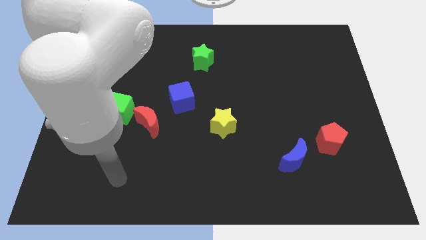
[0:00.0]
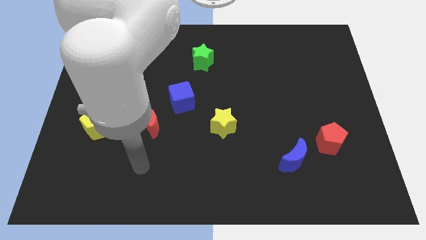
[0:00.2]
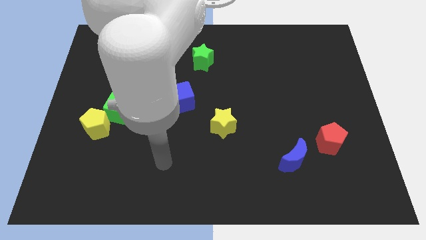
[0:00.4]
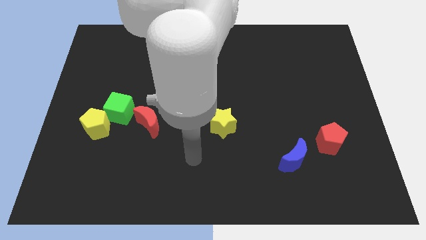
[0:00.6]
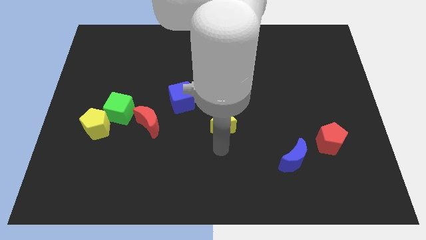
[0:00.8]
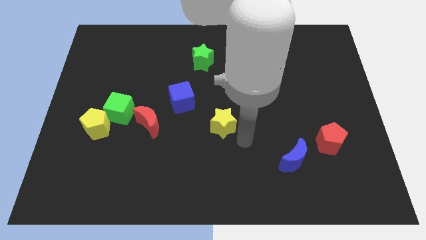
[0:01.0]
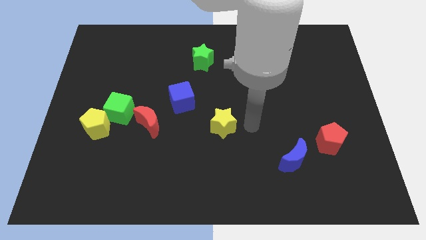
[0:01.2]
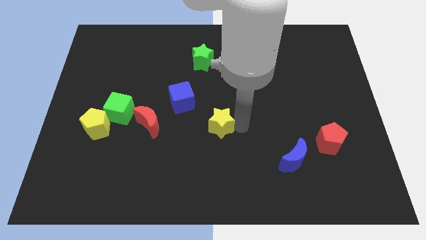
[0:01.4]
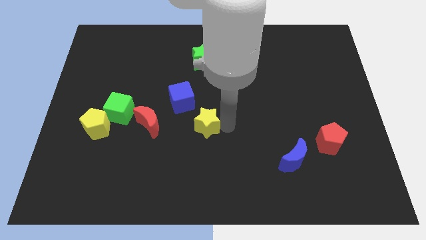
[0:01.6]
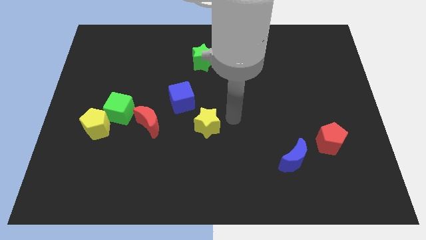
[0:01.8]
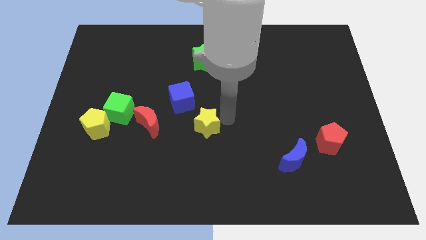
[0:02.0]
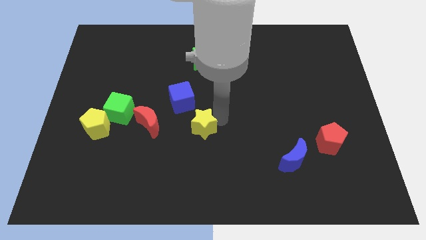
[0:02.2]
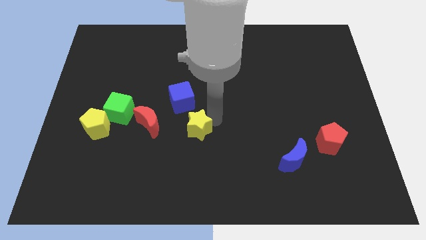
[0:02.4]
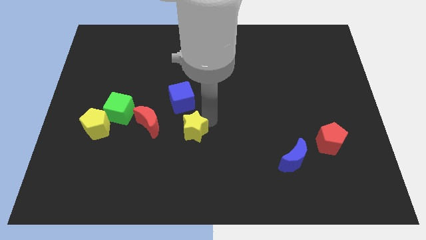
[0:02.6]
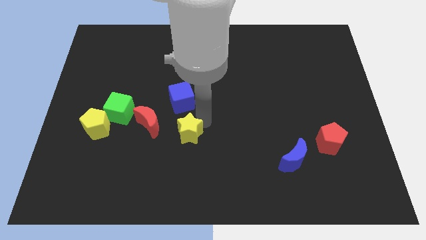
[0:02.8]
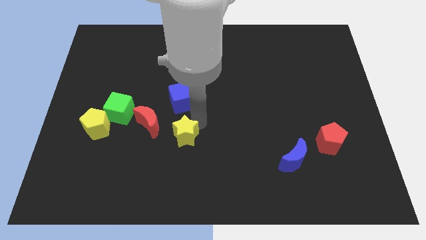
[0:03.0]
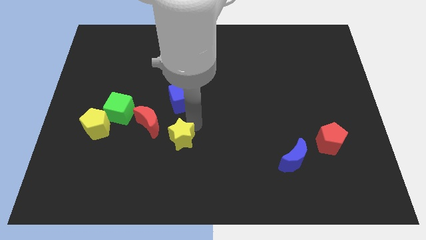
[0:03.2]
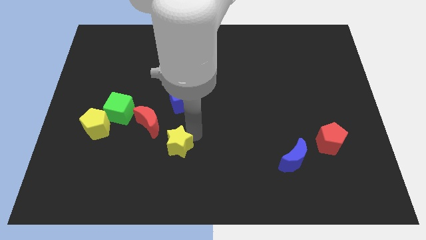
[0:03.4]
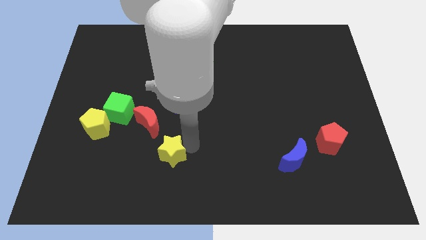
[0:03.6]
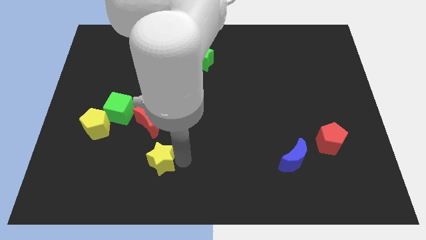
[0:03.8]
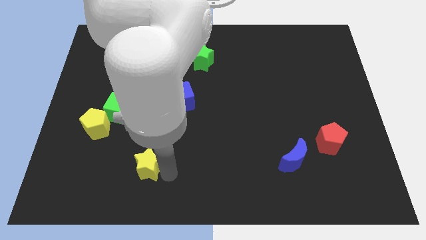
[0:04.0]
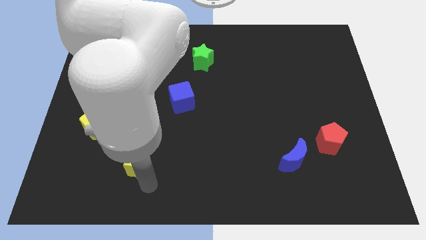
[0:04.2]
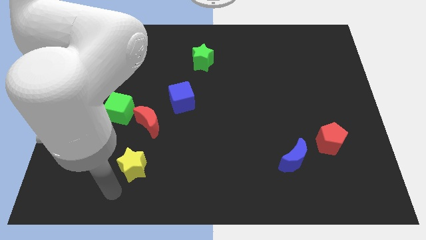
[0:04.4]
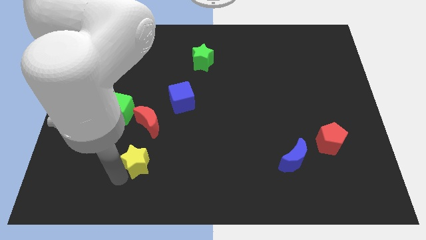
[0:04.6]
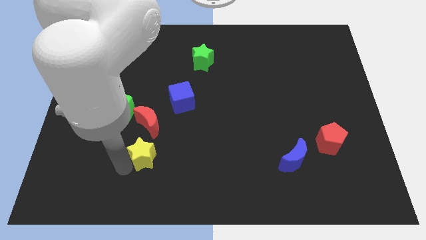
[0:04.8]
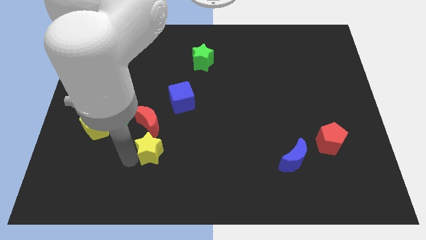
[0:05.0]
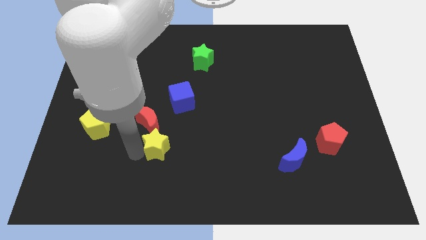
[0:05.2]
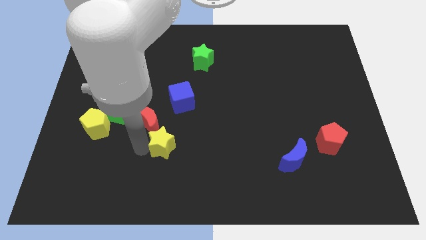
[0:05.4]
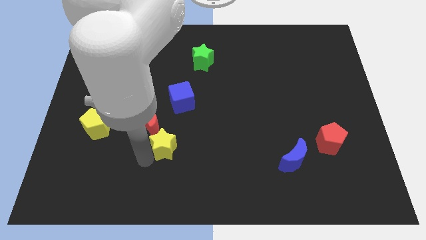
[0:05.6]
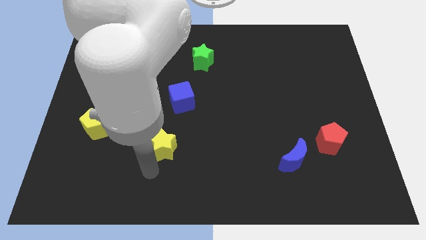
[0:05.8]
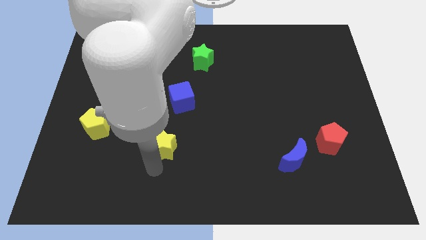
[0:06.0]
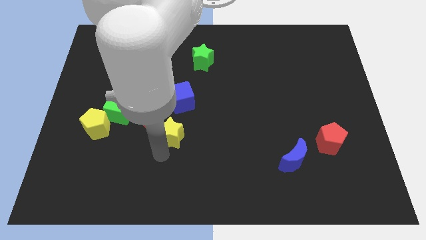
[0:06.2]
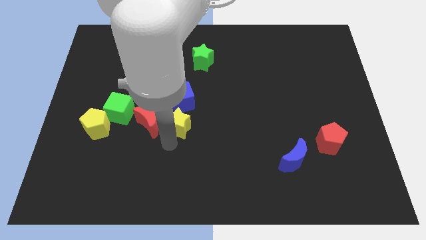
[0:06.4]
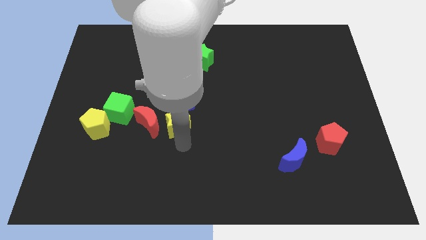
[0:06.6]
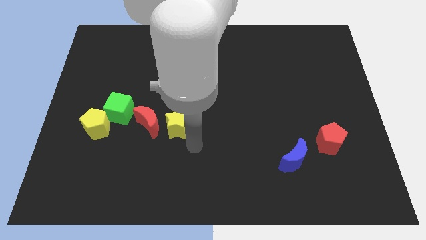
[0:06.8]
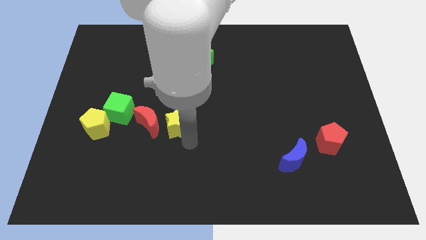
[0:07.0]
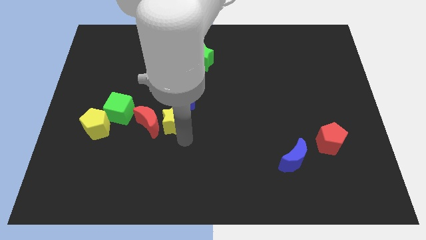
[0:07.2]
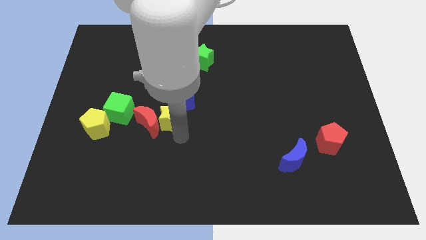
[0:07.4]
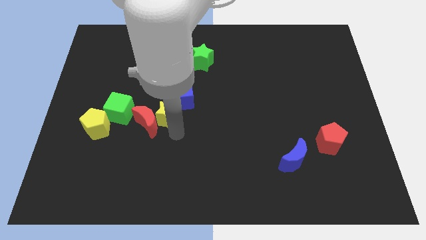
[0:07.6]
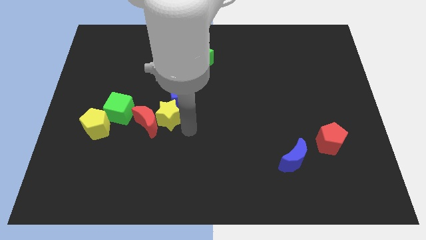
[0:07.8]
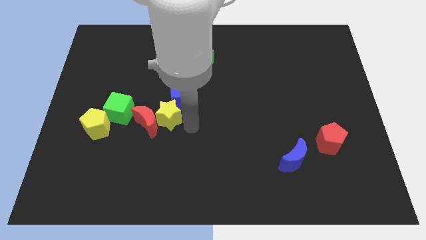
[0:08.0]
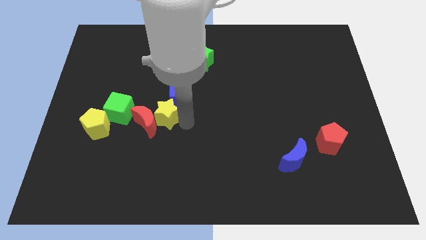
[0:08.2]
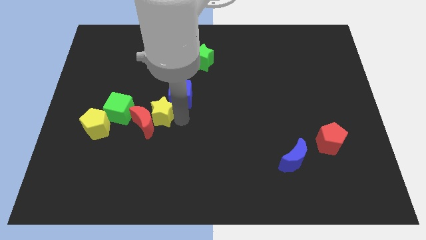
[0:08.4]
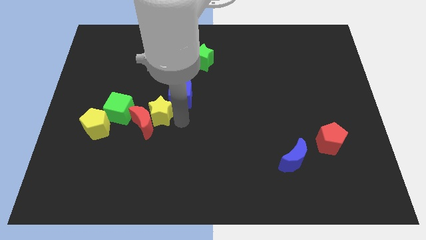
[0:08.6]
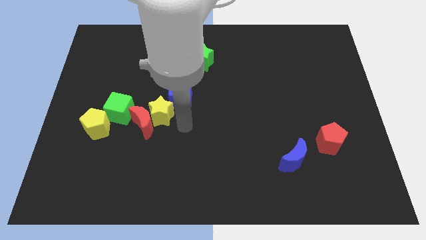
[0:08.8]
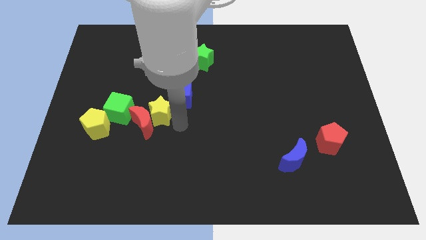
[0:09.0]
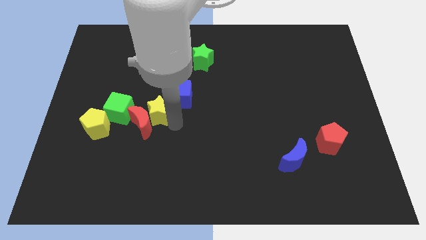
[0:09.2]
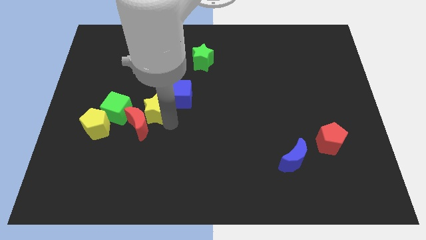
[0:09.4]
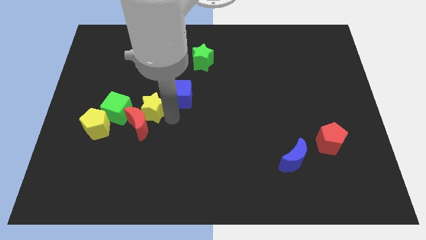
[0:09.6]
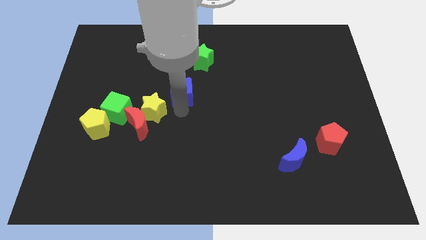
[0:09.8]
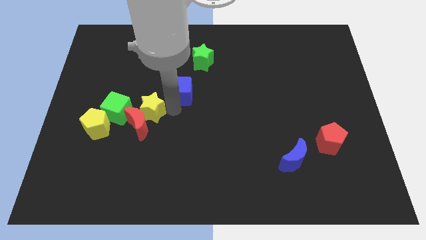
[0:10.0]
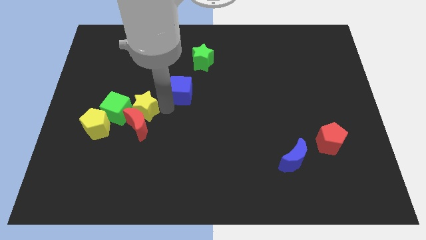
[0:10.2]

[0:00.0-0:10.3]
put the yellow star to the green cube

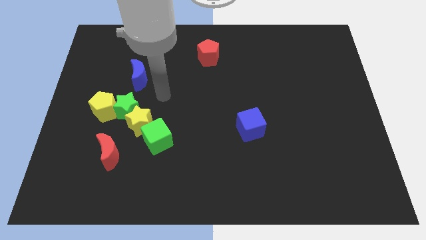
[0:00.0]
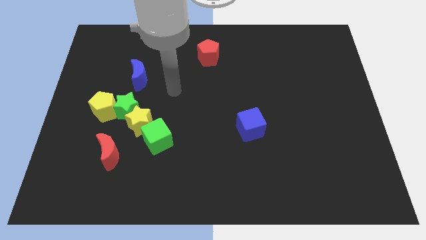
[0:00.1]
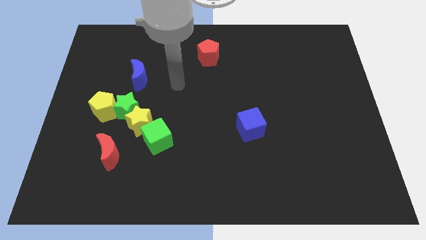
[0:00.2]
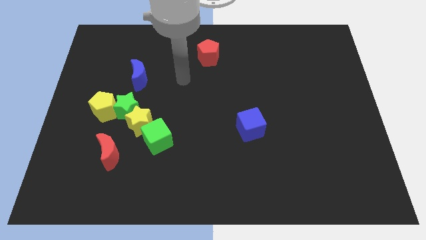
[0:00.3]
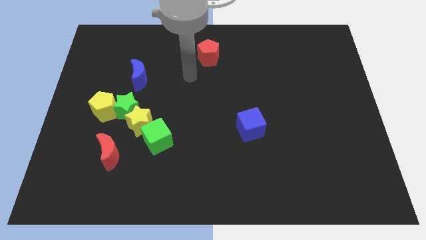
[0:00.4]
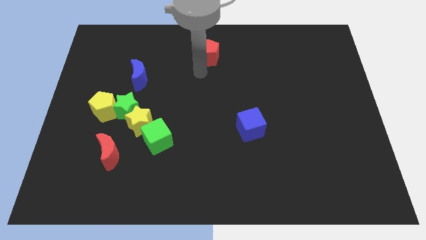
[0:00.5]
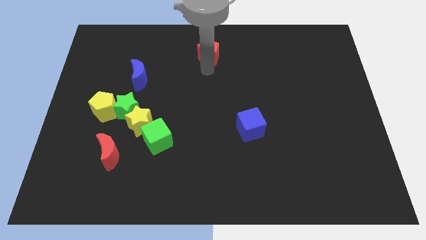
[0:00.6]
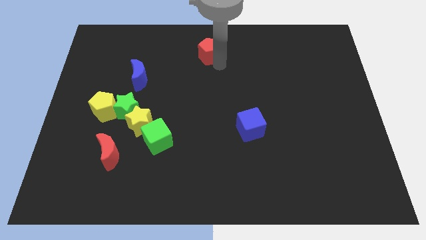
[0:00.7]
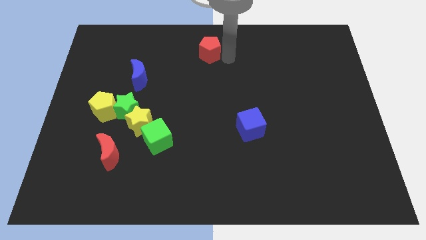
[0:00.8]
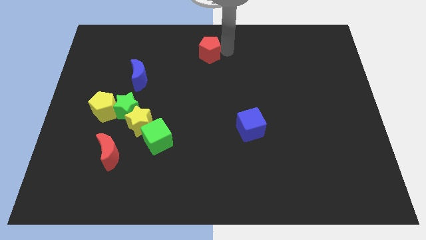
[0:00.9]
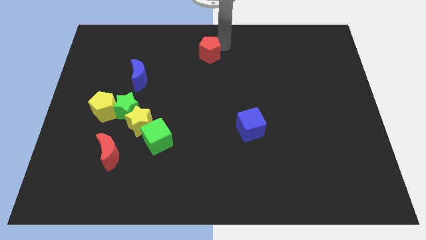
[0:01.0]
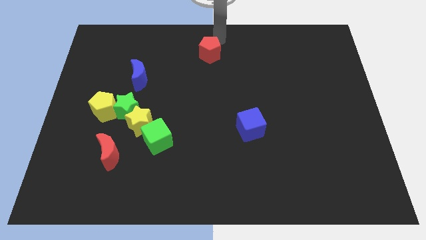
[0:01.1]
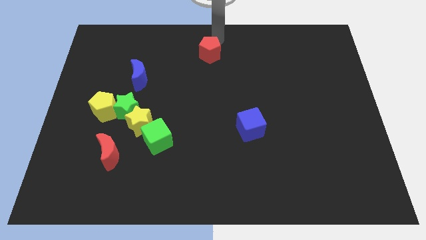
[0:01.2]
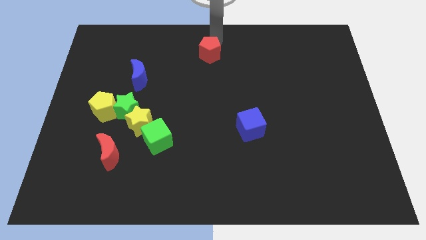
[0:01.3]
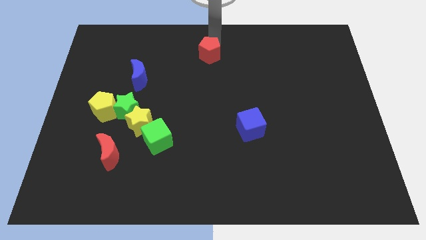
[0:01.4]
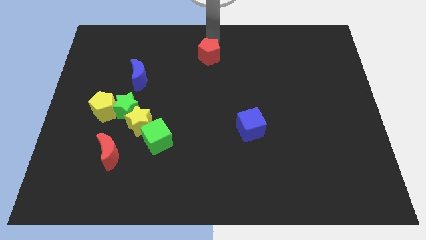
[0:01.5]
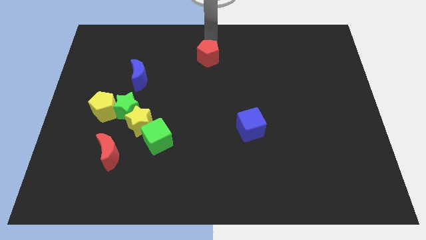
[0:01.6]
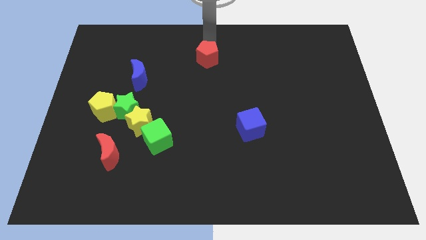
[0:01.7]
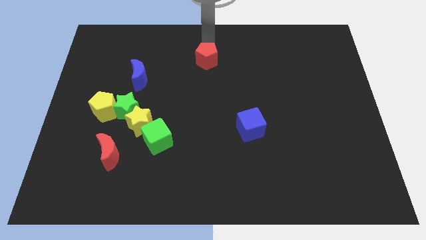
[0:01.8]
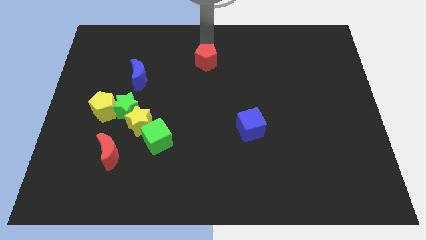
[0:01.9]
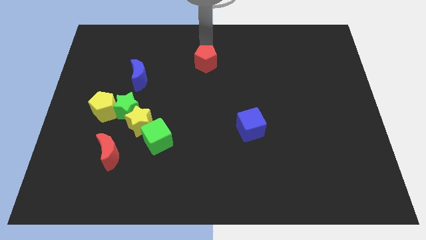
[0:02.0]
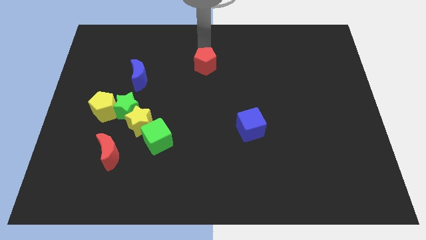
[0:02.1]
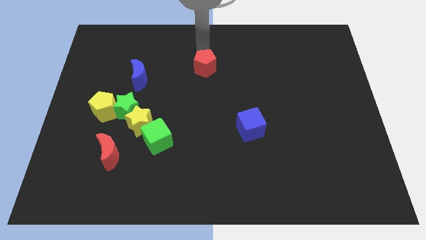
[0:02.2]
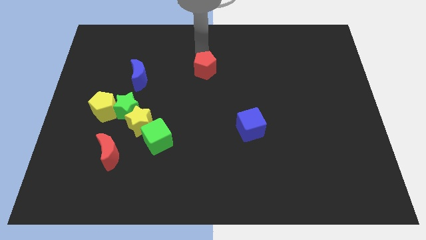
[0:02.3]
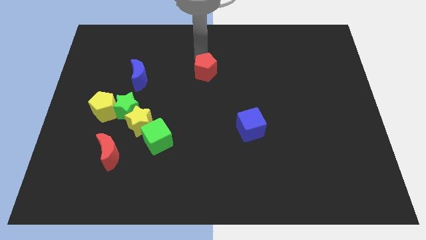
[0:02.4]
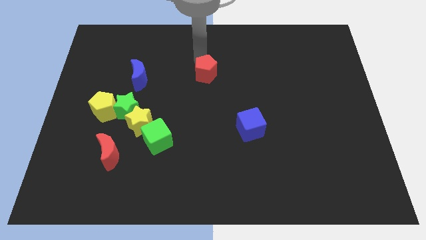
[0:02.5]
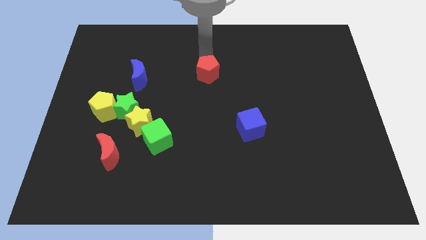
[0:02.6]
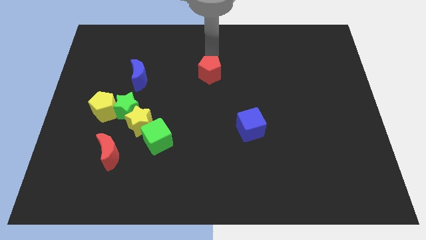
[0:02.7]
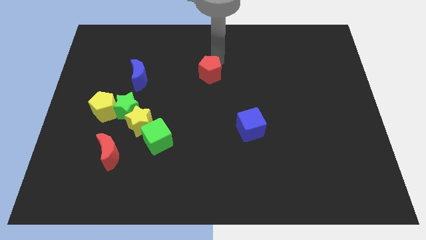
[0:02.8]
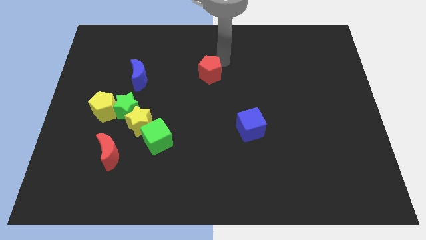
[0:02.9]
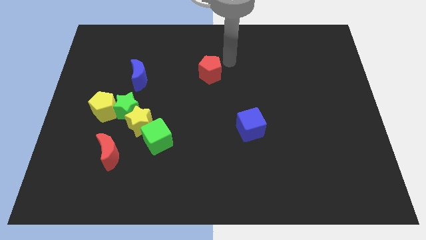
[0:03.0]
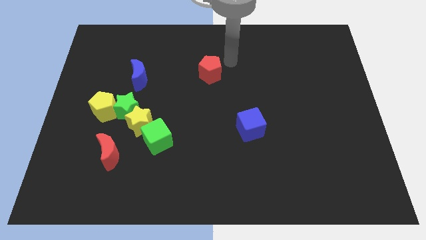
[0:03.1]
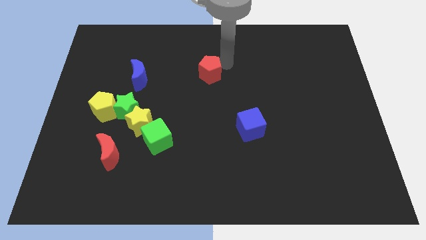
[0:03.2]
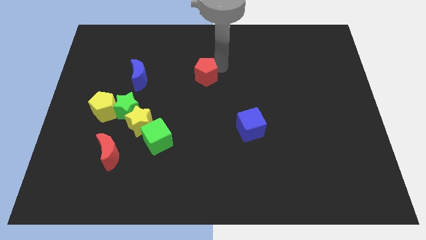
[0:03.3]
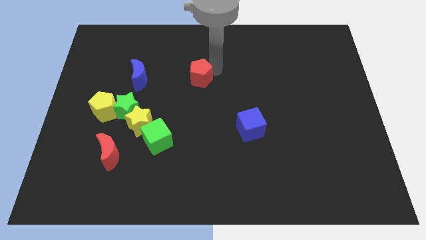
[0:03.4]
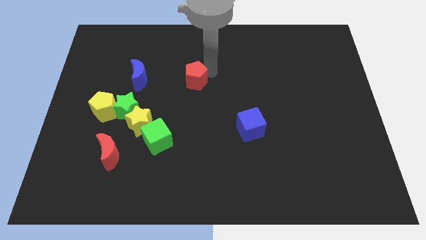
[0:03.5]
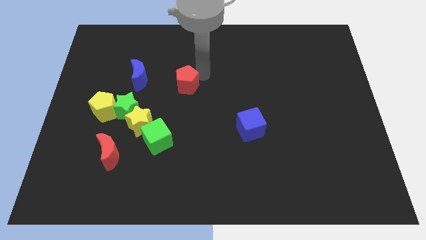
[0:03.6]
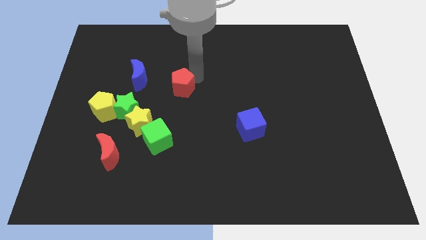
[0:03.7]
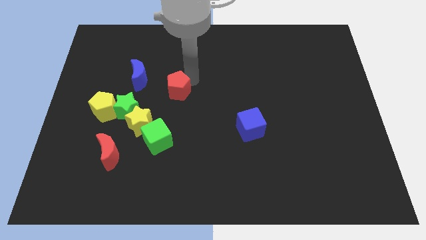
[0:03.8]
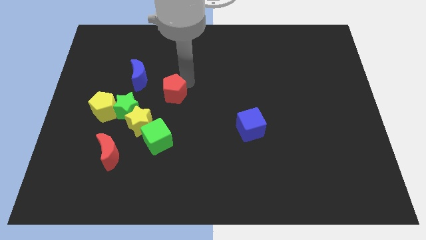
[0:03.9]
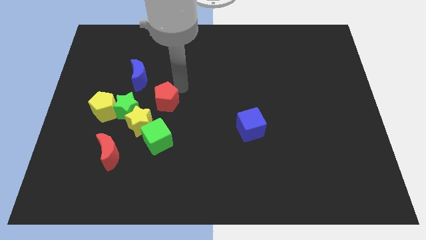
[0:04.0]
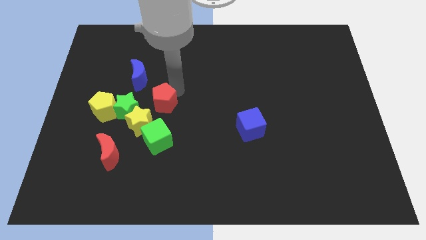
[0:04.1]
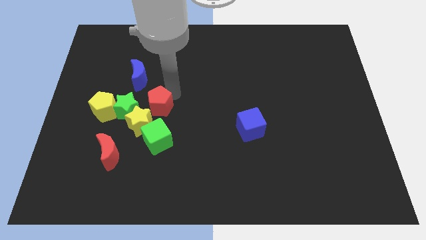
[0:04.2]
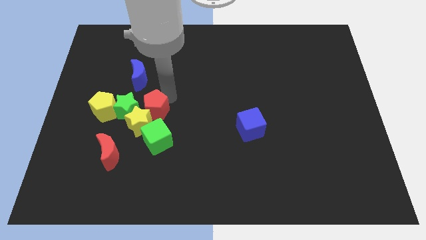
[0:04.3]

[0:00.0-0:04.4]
move the red pentagon to the yellow star
